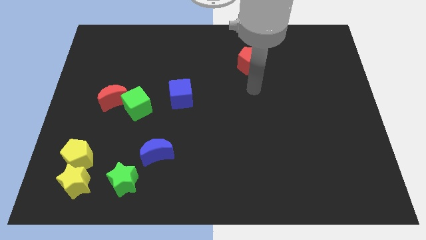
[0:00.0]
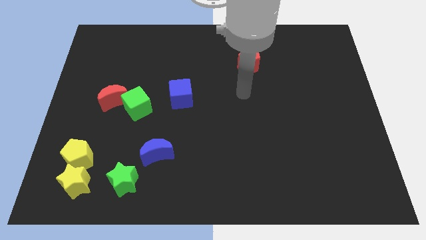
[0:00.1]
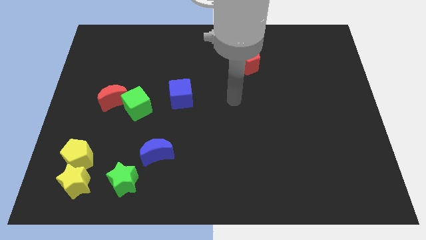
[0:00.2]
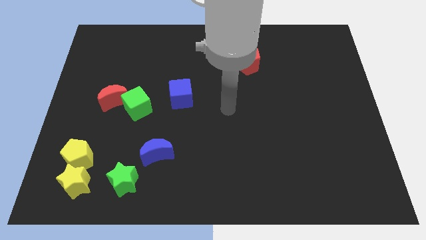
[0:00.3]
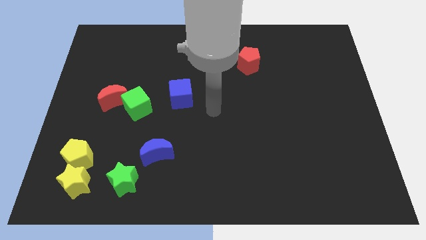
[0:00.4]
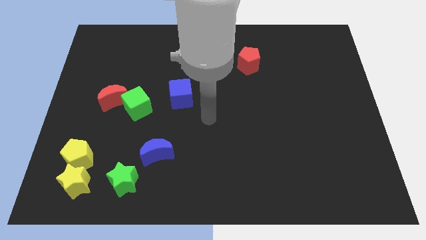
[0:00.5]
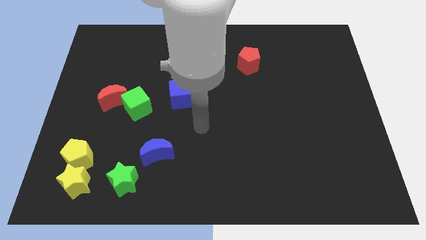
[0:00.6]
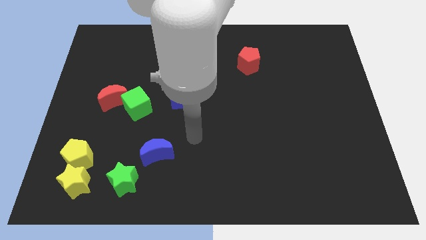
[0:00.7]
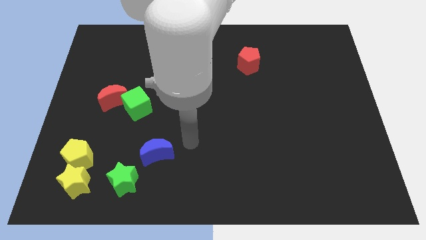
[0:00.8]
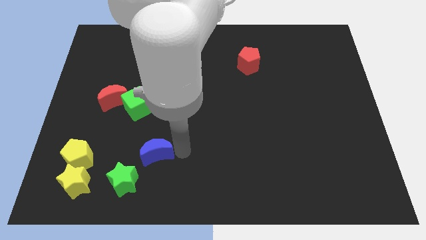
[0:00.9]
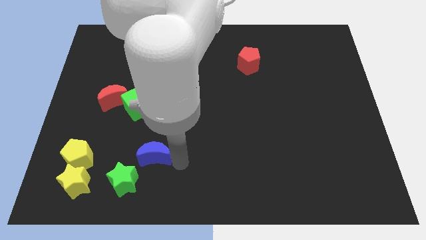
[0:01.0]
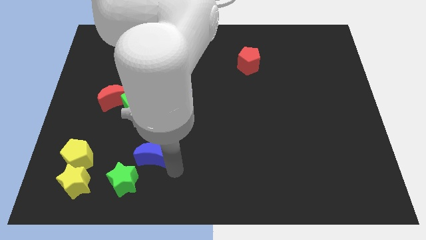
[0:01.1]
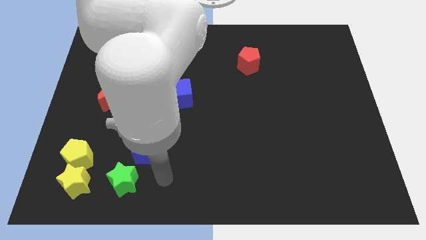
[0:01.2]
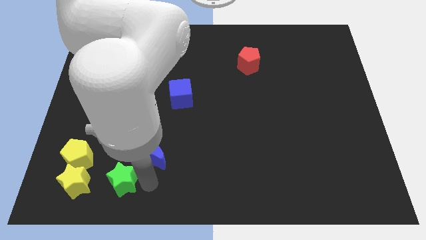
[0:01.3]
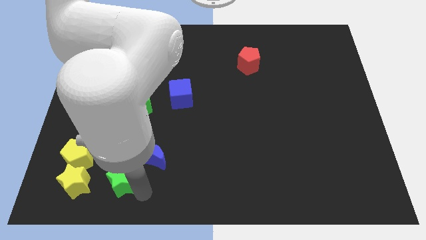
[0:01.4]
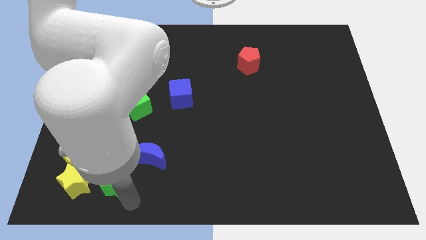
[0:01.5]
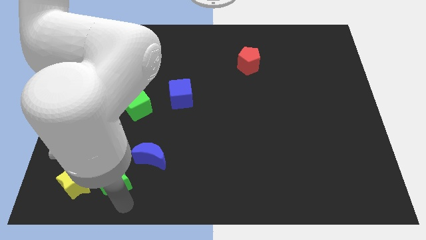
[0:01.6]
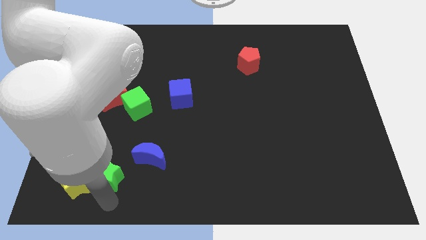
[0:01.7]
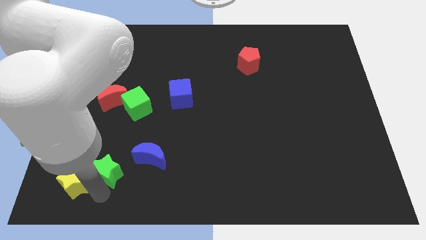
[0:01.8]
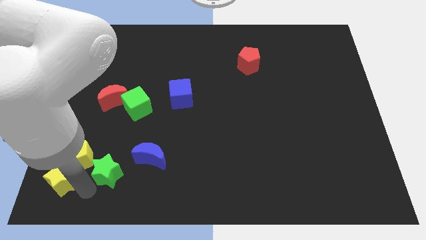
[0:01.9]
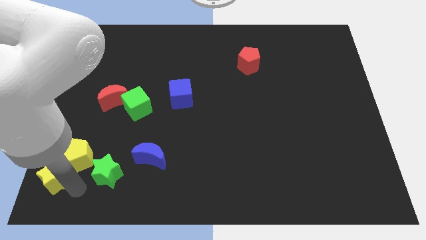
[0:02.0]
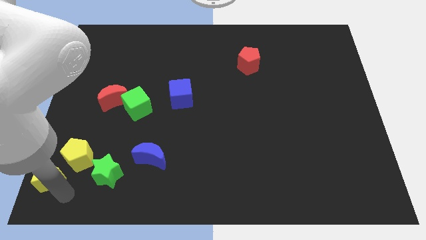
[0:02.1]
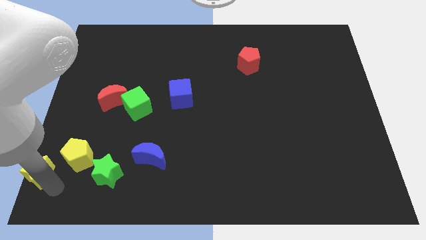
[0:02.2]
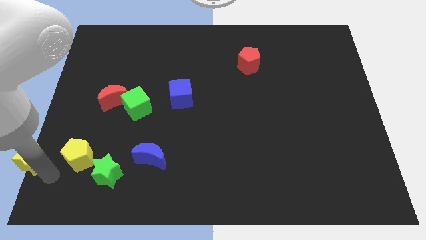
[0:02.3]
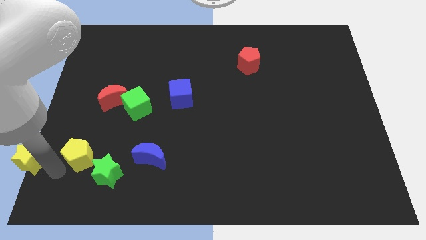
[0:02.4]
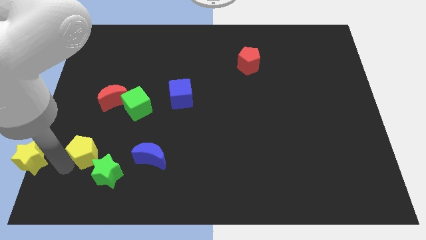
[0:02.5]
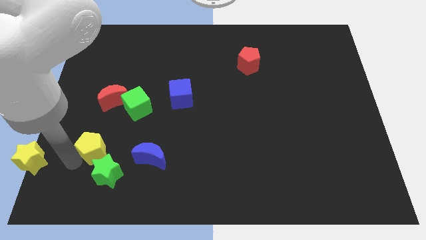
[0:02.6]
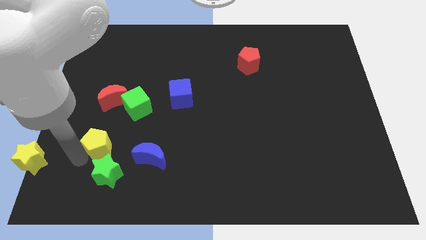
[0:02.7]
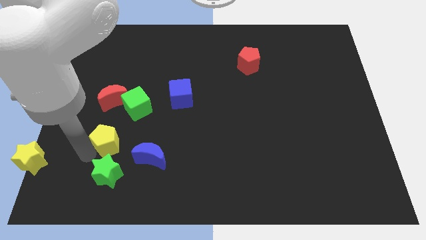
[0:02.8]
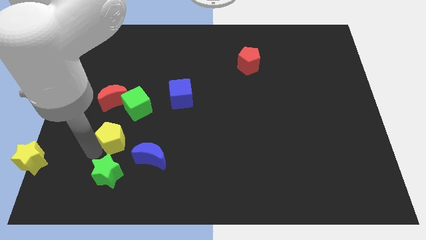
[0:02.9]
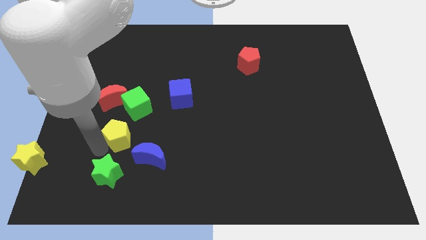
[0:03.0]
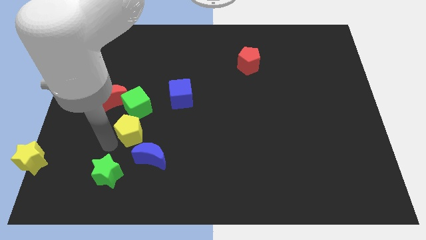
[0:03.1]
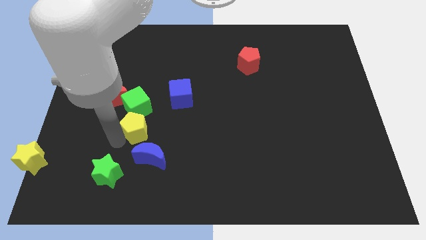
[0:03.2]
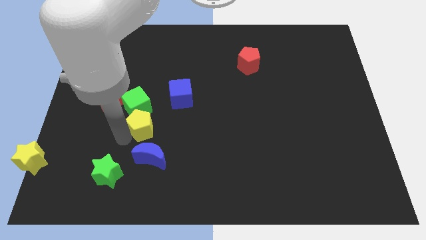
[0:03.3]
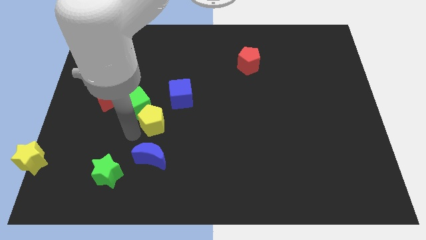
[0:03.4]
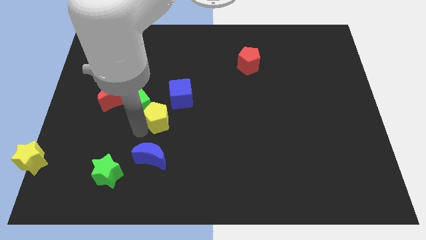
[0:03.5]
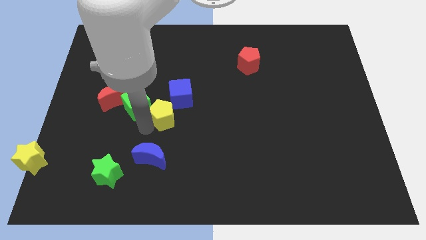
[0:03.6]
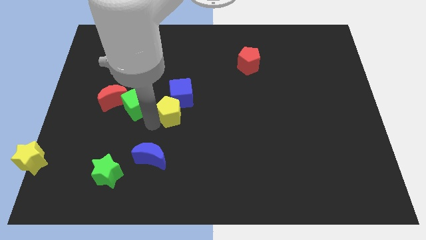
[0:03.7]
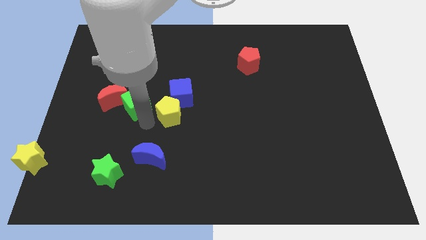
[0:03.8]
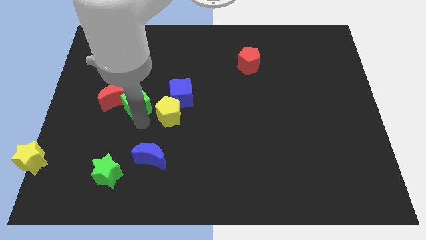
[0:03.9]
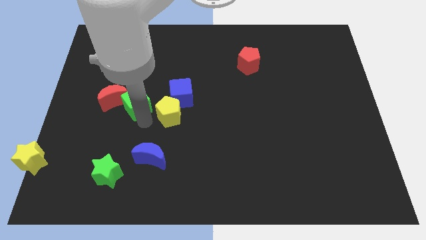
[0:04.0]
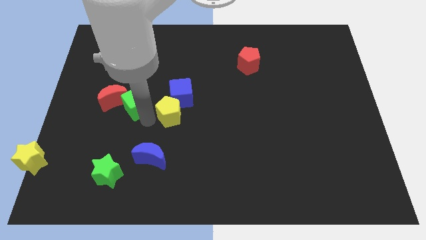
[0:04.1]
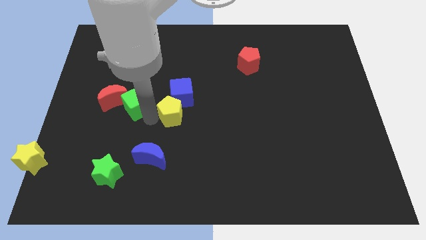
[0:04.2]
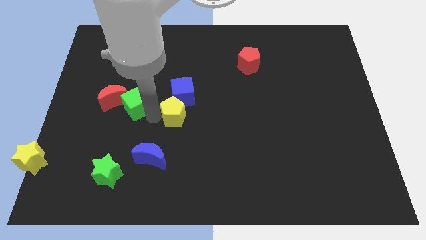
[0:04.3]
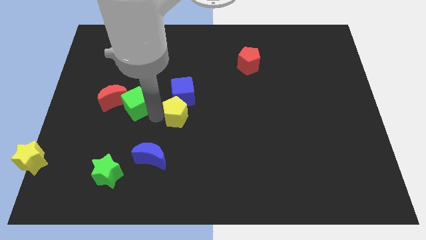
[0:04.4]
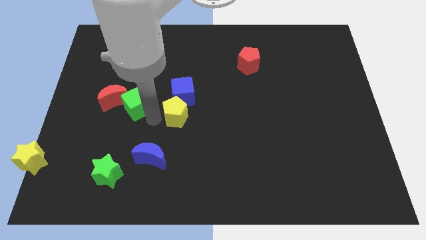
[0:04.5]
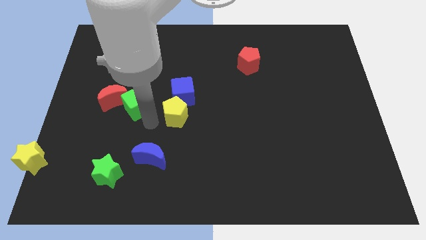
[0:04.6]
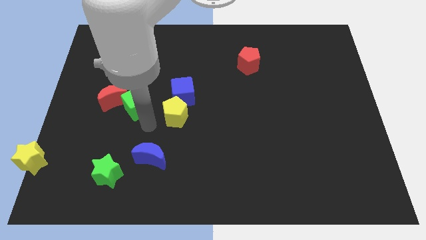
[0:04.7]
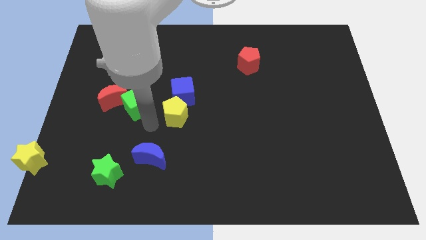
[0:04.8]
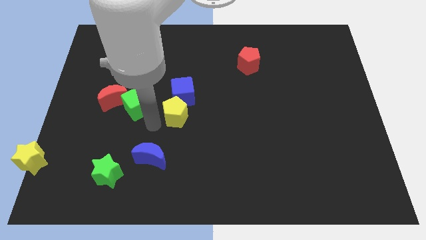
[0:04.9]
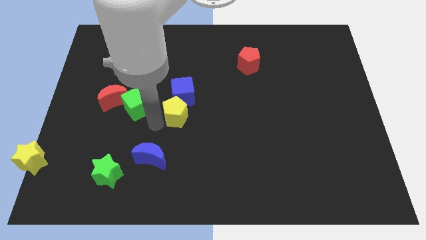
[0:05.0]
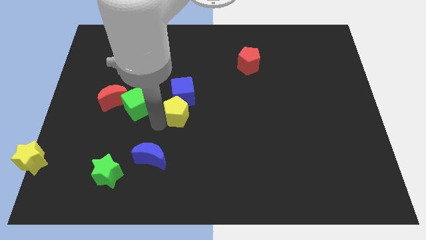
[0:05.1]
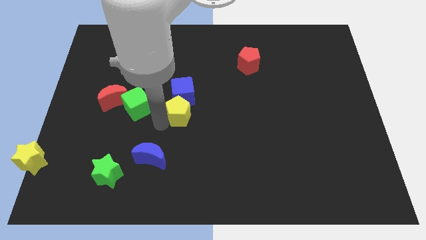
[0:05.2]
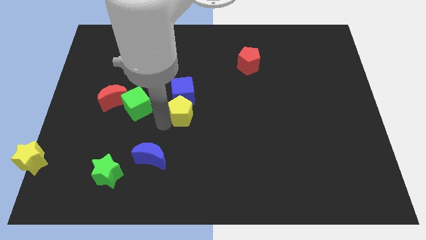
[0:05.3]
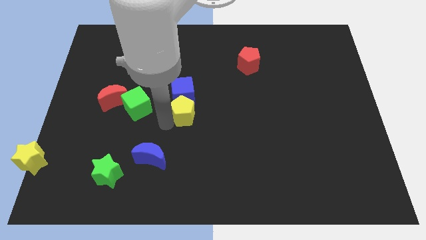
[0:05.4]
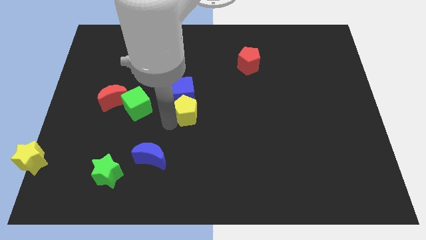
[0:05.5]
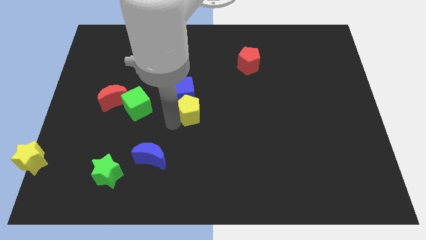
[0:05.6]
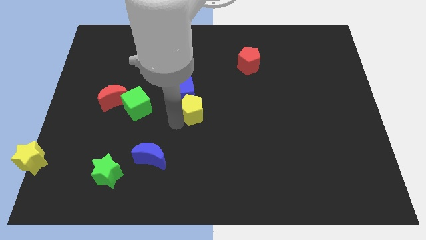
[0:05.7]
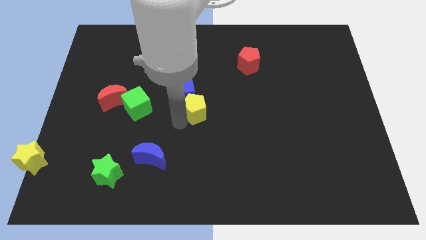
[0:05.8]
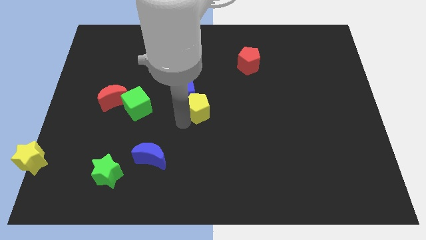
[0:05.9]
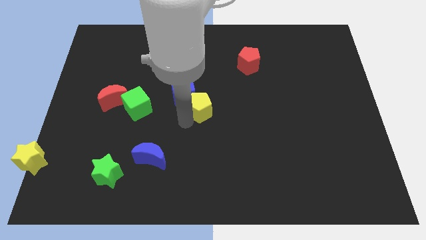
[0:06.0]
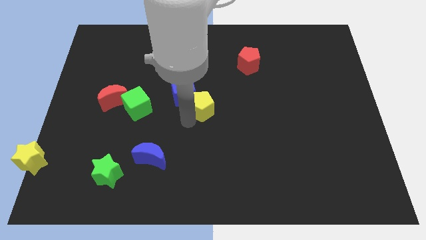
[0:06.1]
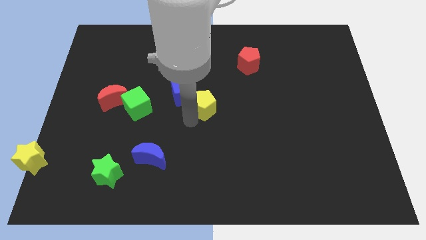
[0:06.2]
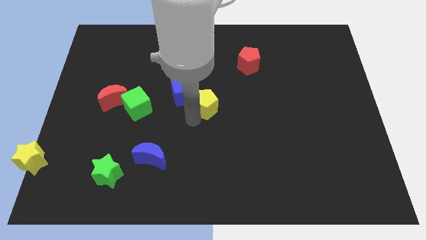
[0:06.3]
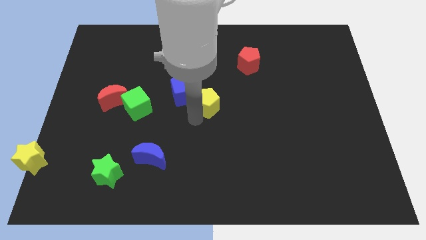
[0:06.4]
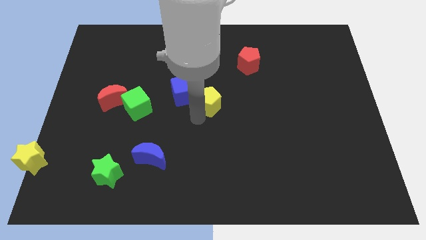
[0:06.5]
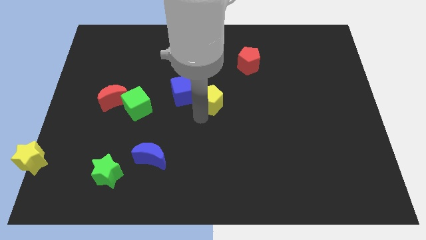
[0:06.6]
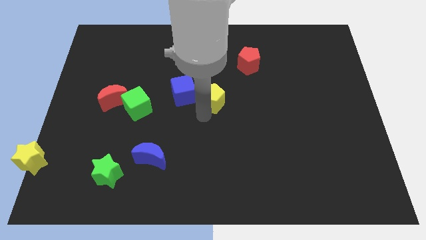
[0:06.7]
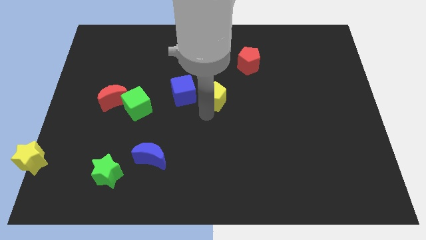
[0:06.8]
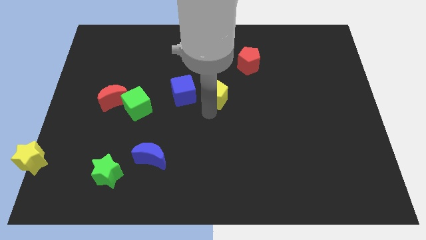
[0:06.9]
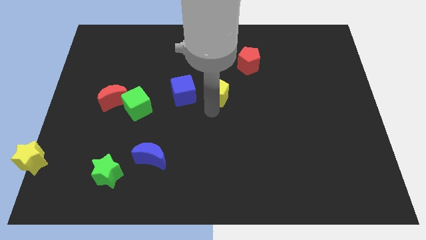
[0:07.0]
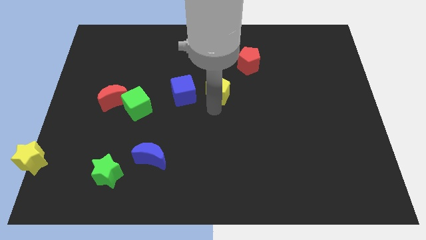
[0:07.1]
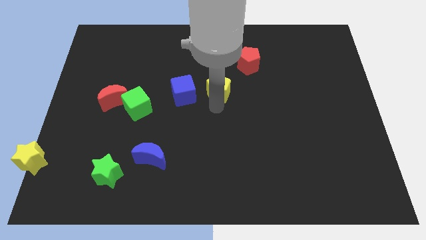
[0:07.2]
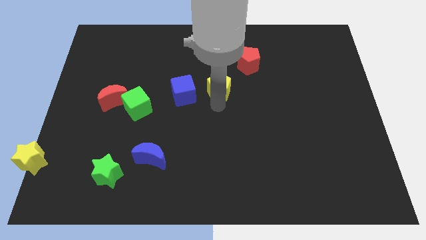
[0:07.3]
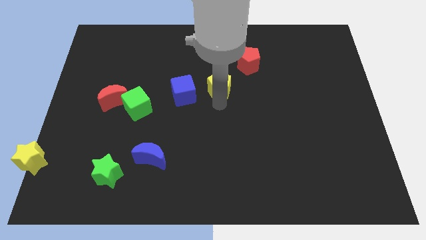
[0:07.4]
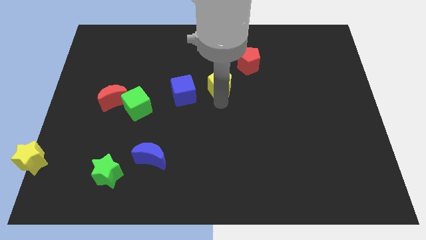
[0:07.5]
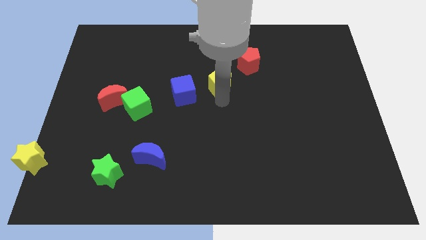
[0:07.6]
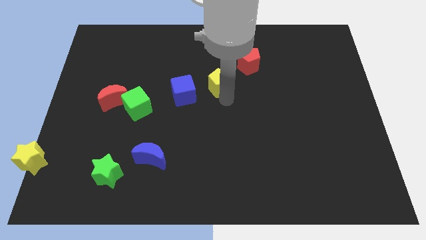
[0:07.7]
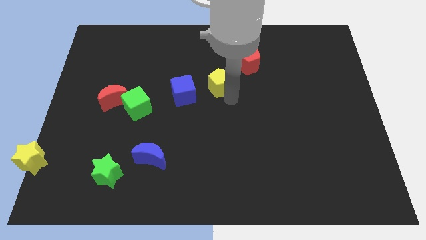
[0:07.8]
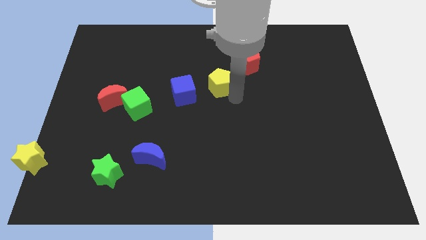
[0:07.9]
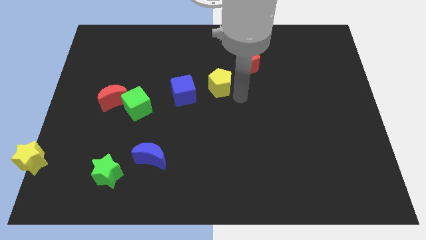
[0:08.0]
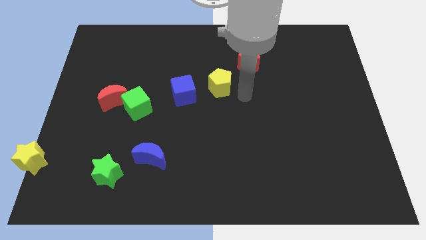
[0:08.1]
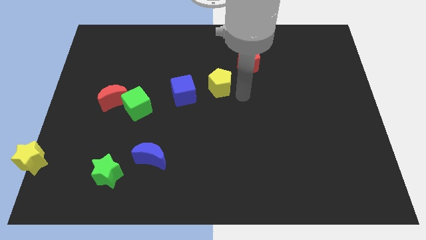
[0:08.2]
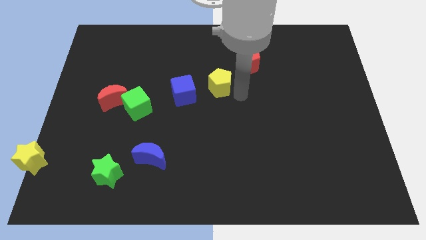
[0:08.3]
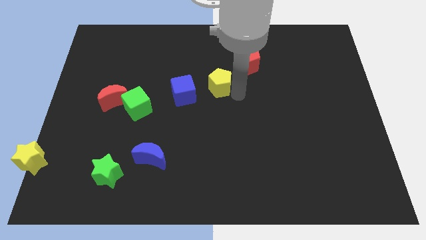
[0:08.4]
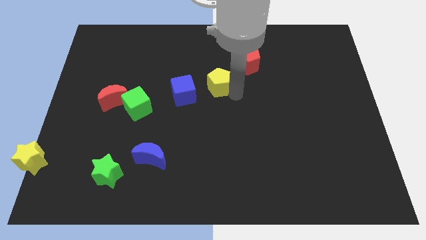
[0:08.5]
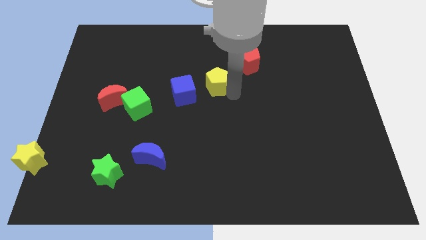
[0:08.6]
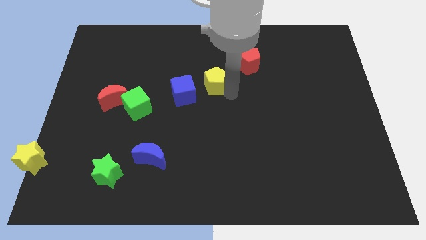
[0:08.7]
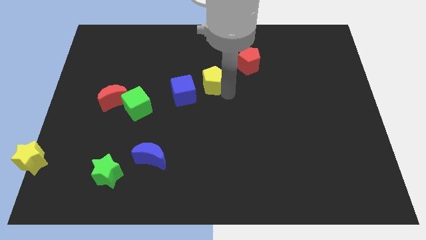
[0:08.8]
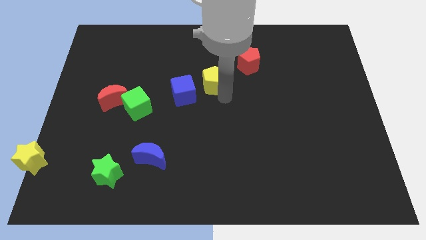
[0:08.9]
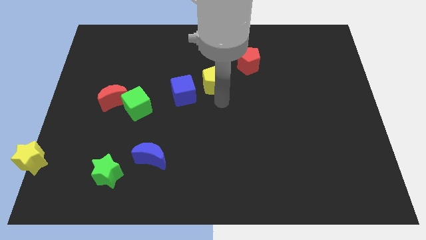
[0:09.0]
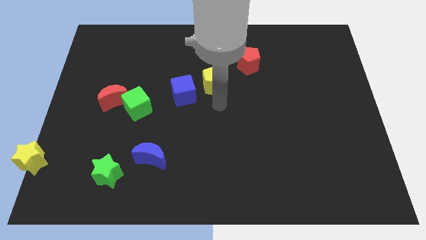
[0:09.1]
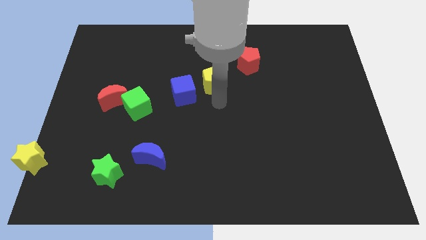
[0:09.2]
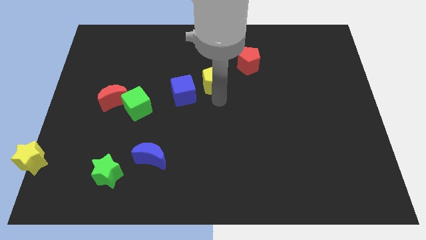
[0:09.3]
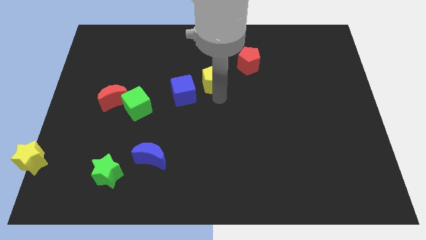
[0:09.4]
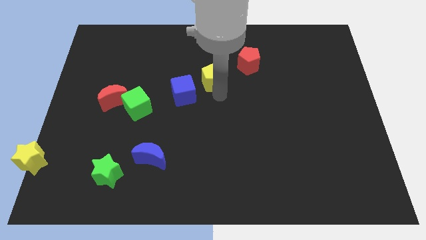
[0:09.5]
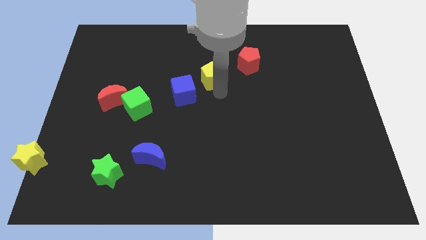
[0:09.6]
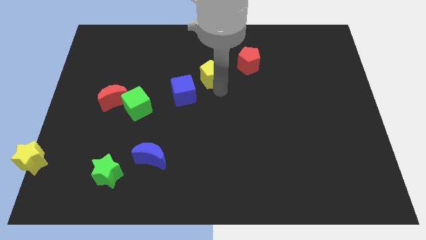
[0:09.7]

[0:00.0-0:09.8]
move the yellow pentagon left of the red pentagon
